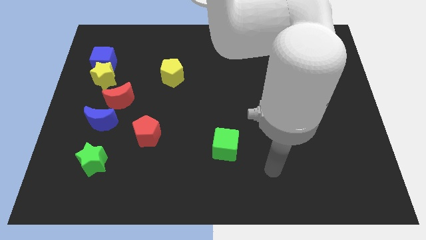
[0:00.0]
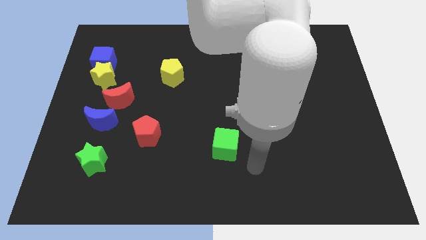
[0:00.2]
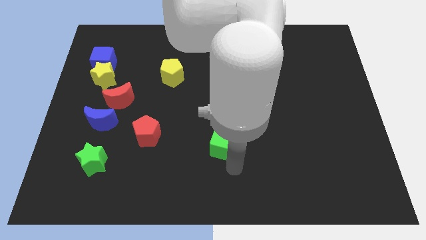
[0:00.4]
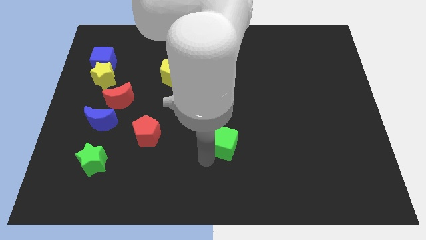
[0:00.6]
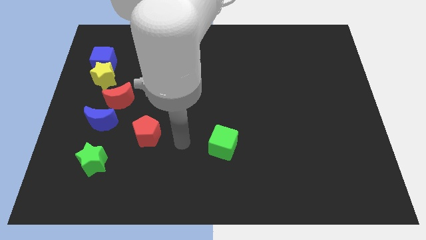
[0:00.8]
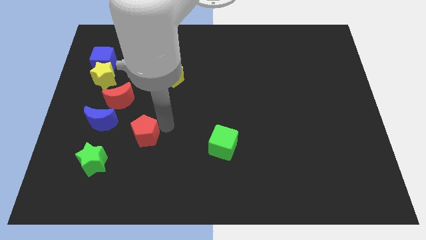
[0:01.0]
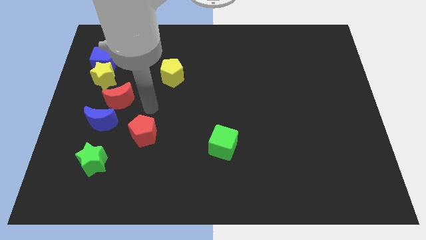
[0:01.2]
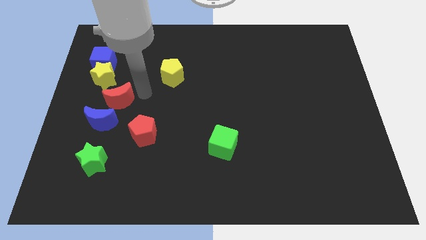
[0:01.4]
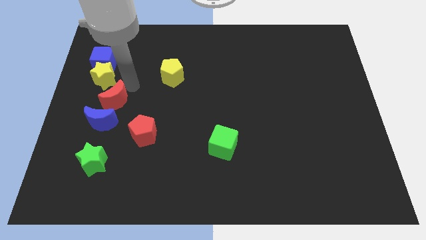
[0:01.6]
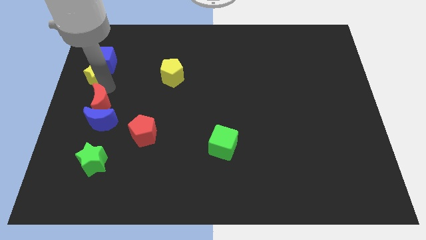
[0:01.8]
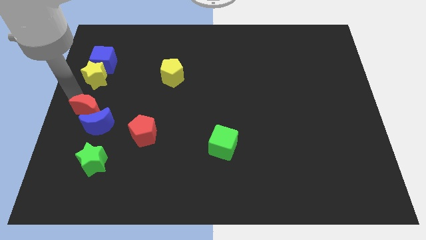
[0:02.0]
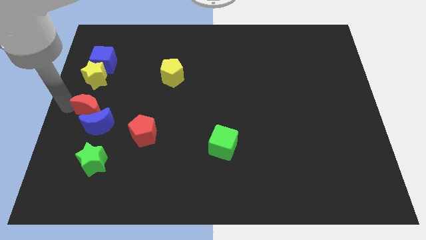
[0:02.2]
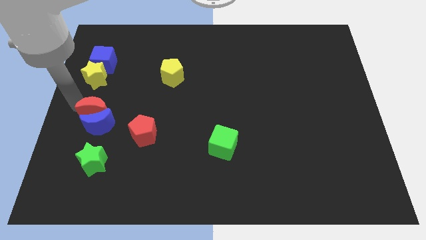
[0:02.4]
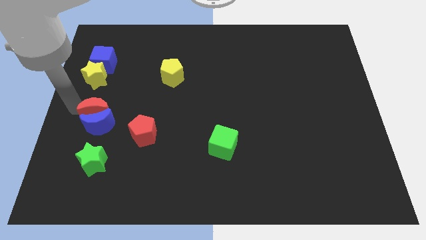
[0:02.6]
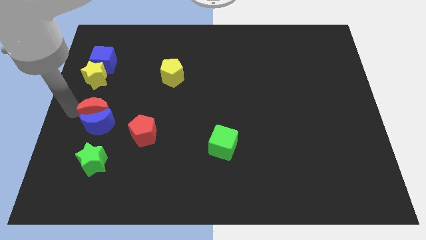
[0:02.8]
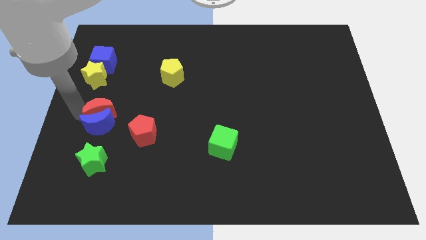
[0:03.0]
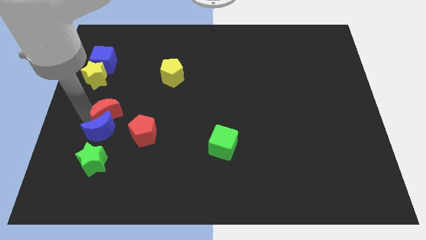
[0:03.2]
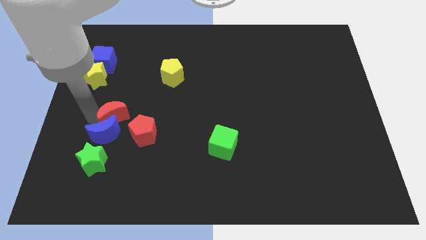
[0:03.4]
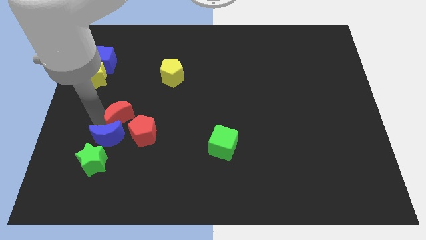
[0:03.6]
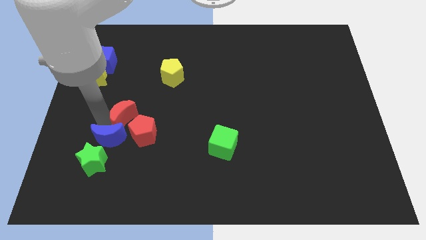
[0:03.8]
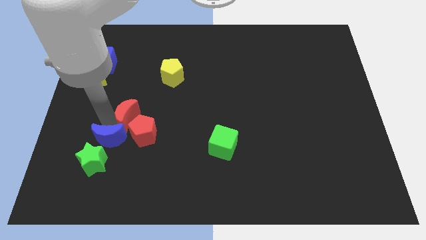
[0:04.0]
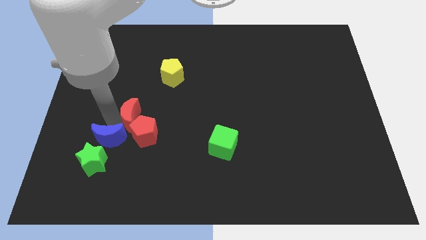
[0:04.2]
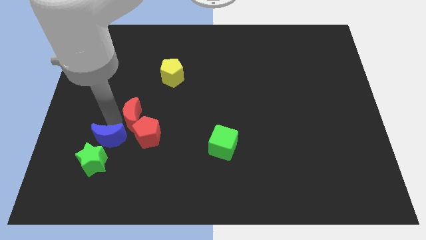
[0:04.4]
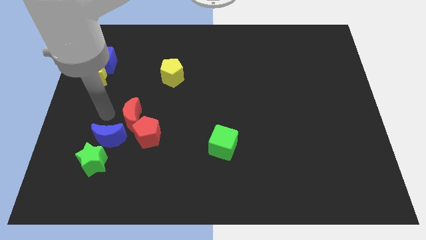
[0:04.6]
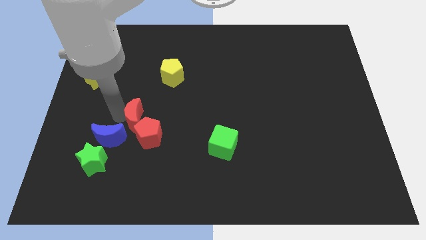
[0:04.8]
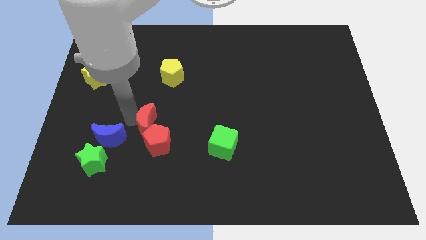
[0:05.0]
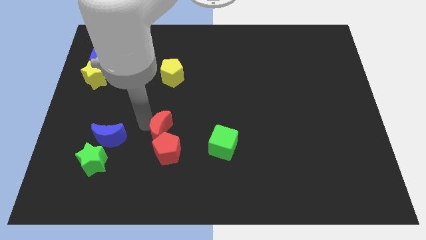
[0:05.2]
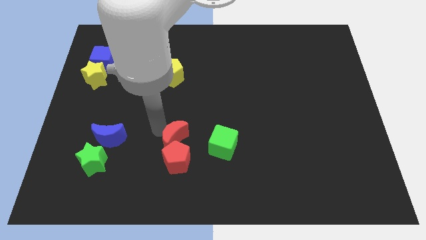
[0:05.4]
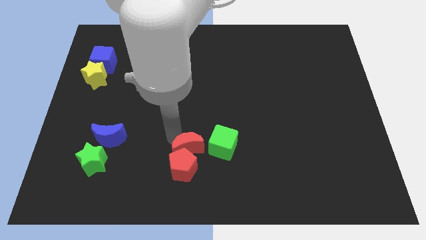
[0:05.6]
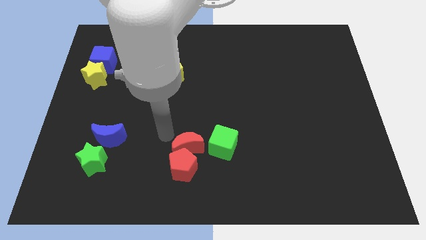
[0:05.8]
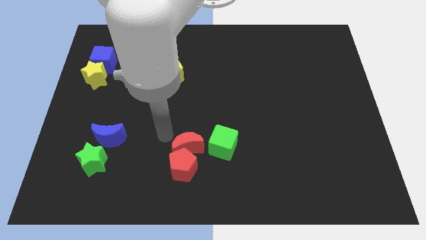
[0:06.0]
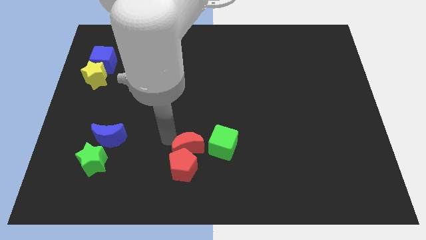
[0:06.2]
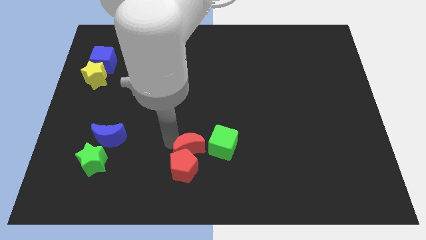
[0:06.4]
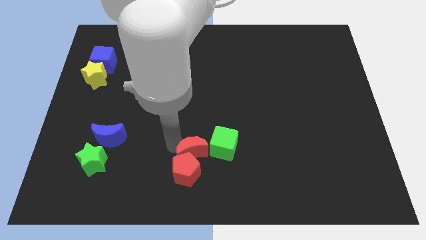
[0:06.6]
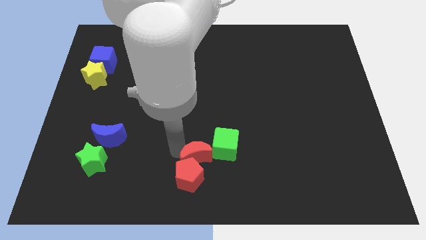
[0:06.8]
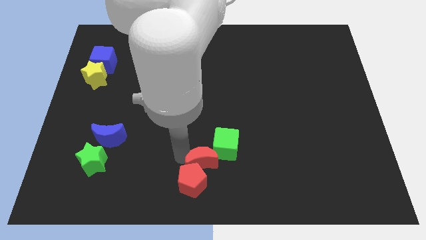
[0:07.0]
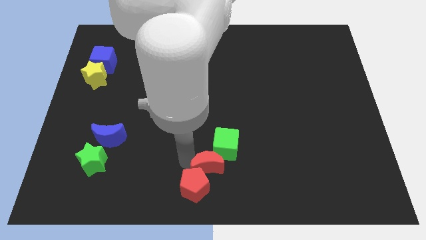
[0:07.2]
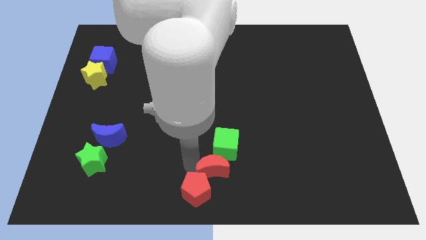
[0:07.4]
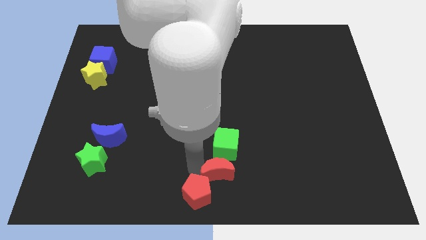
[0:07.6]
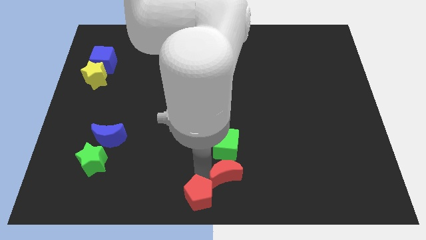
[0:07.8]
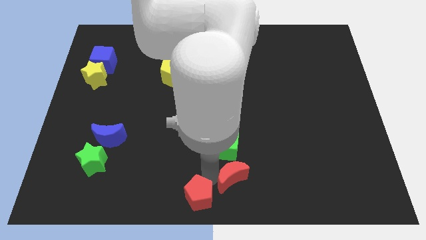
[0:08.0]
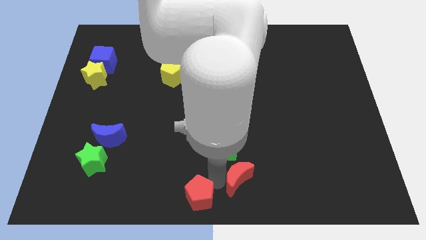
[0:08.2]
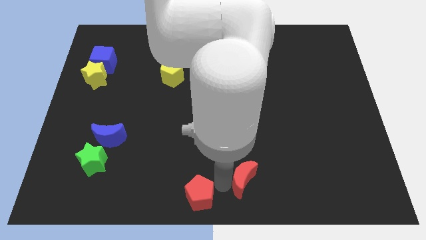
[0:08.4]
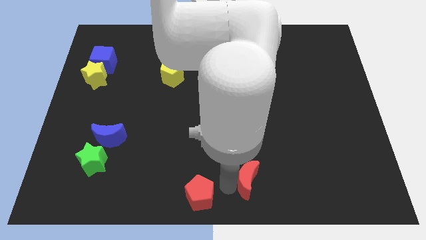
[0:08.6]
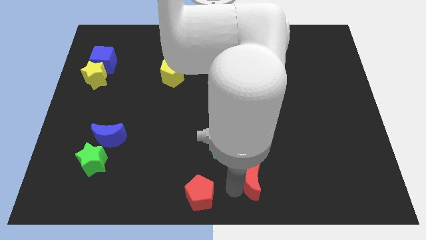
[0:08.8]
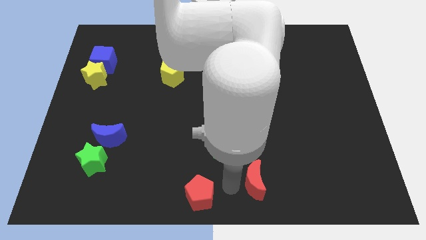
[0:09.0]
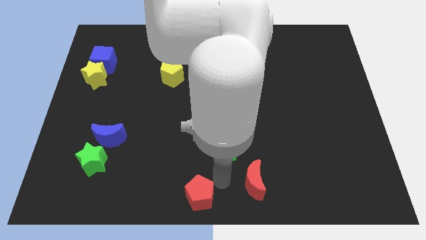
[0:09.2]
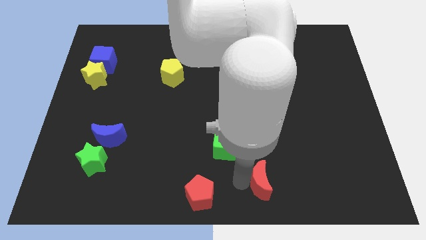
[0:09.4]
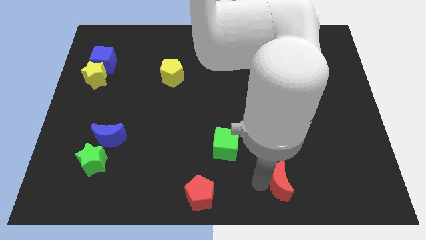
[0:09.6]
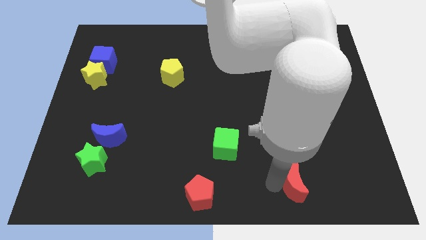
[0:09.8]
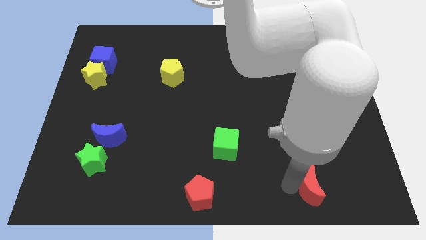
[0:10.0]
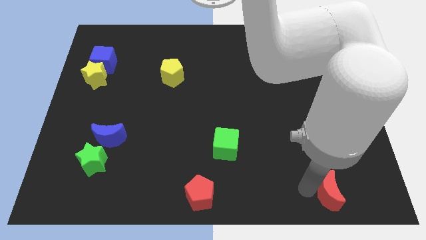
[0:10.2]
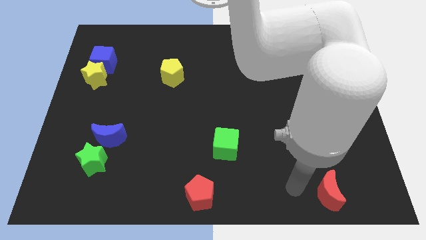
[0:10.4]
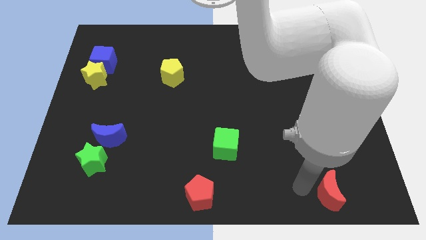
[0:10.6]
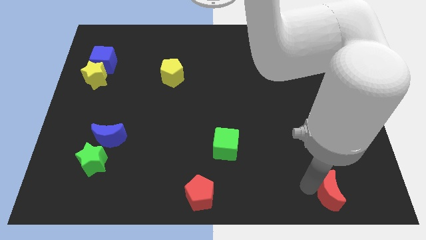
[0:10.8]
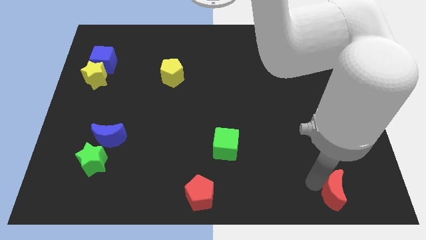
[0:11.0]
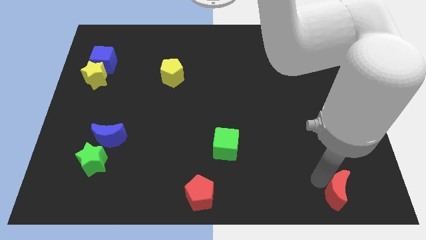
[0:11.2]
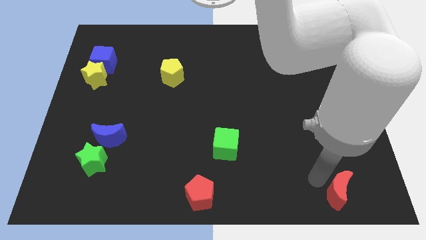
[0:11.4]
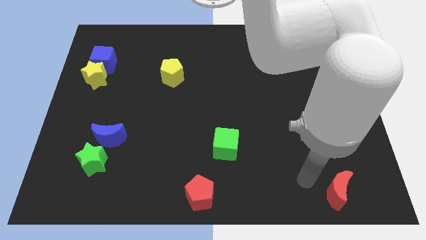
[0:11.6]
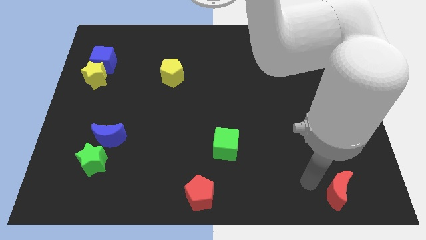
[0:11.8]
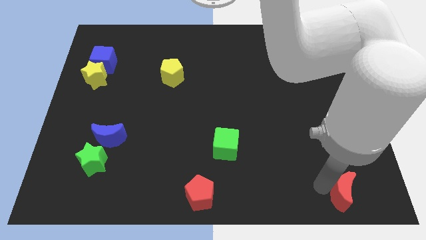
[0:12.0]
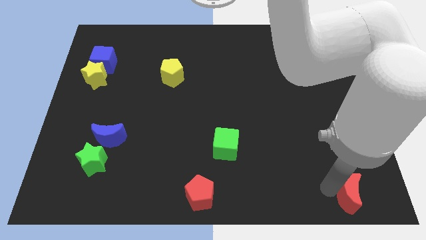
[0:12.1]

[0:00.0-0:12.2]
push the red moon to the bottom right

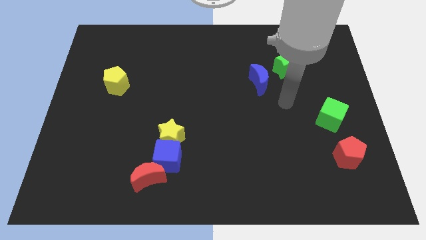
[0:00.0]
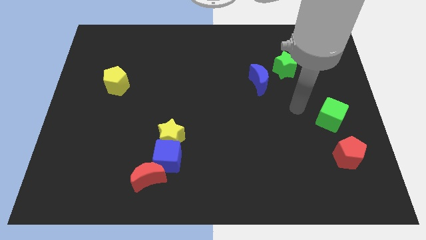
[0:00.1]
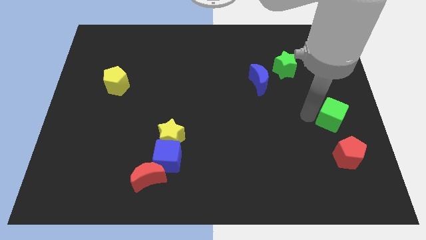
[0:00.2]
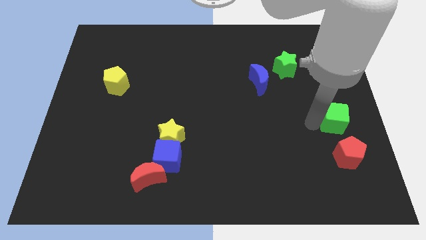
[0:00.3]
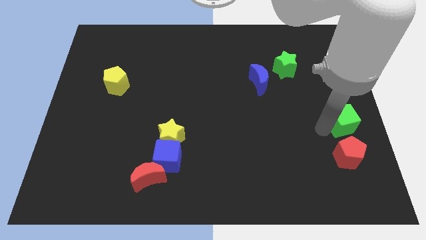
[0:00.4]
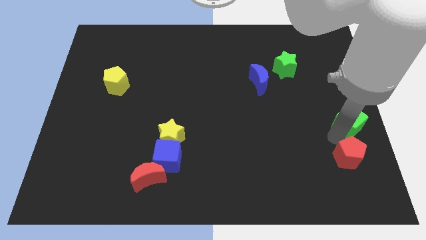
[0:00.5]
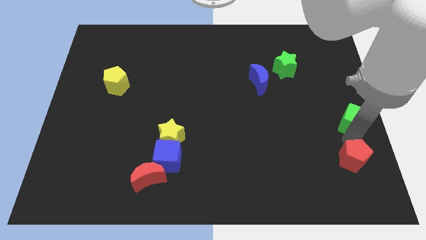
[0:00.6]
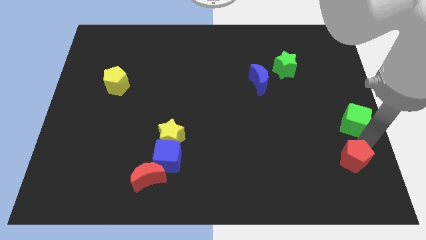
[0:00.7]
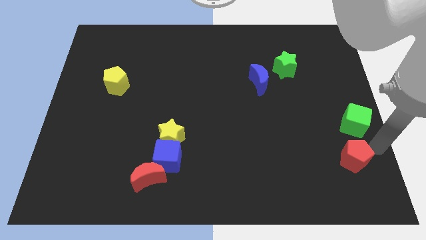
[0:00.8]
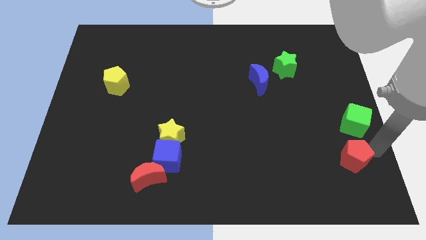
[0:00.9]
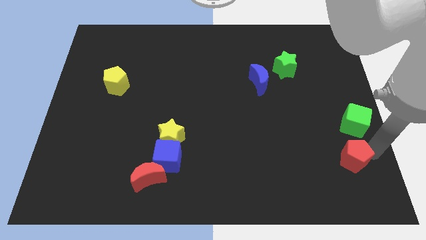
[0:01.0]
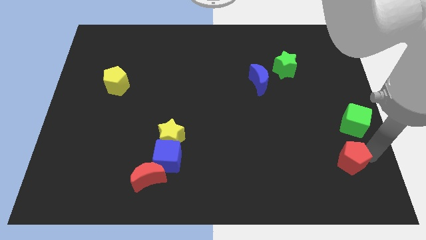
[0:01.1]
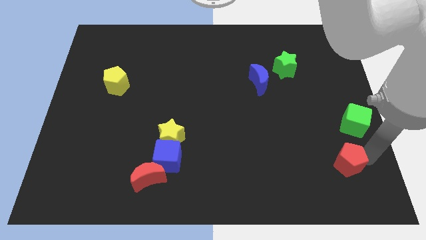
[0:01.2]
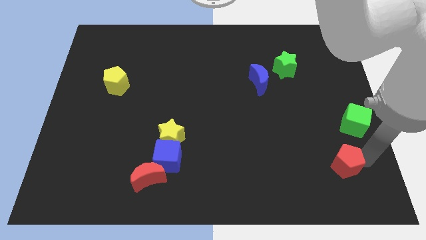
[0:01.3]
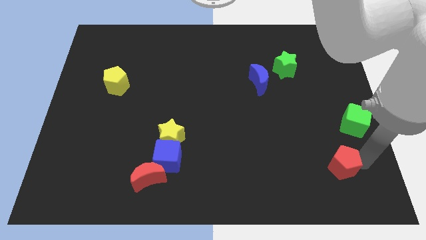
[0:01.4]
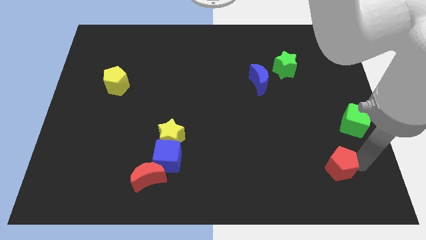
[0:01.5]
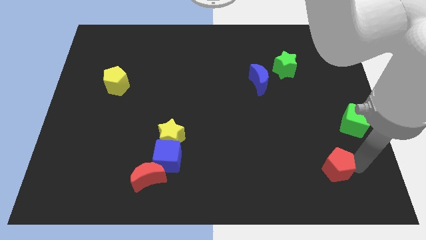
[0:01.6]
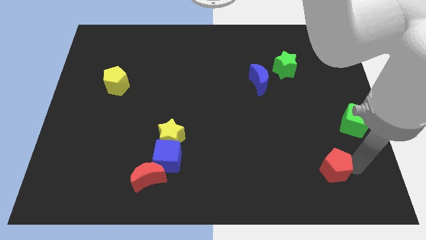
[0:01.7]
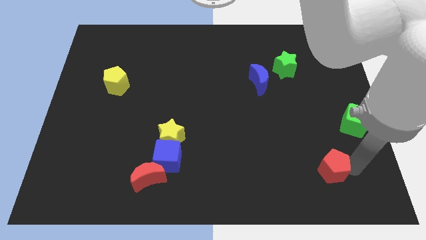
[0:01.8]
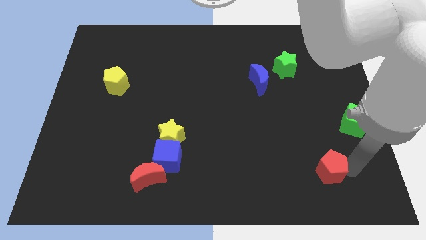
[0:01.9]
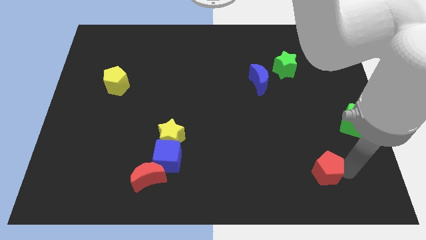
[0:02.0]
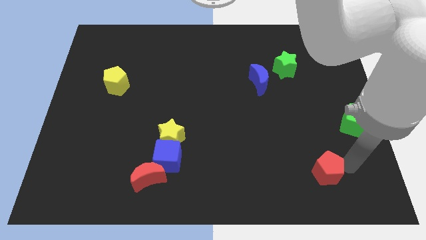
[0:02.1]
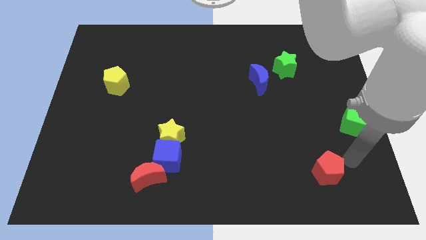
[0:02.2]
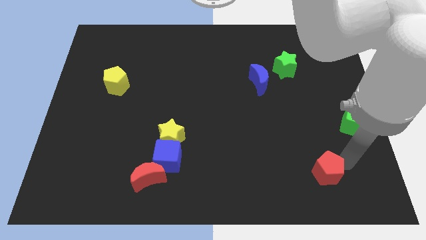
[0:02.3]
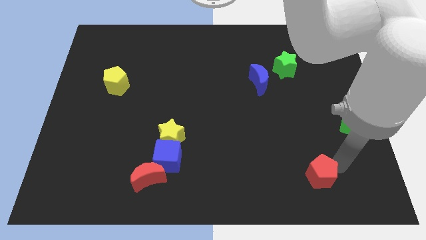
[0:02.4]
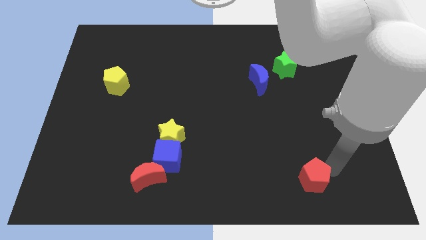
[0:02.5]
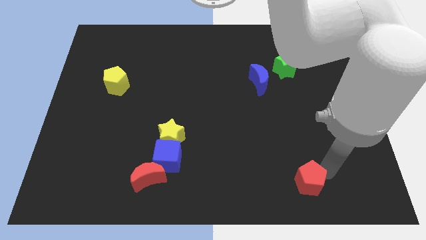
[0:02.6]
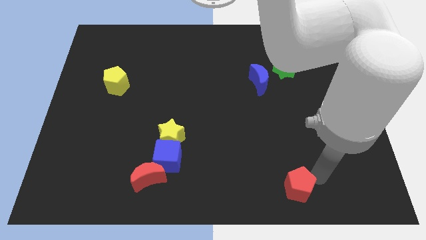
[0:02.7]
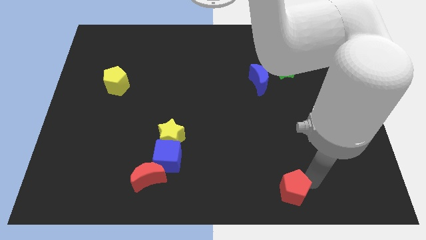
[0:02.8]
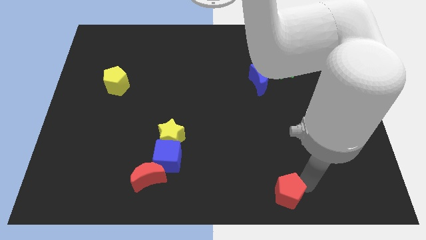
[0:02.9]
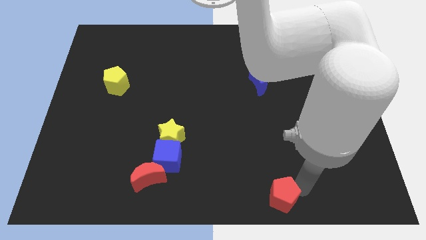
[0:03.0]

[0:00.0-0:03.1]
put the red pentagon to the bottom side
